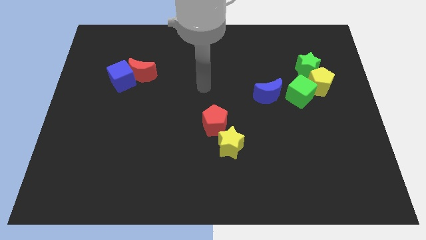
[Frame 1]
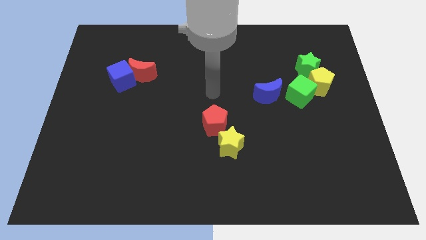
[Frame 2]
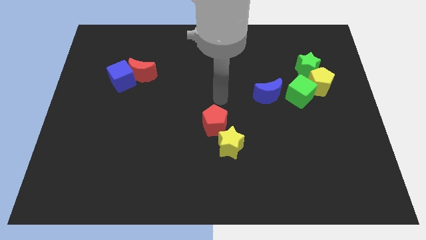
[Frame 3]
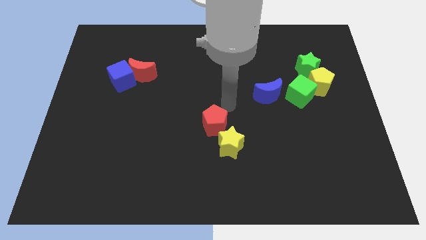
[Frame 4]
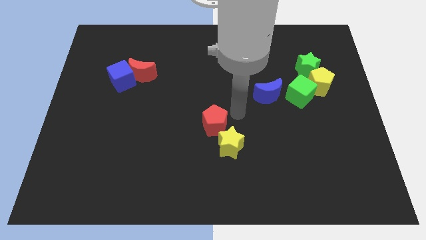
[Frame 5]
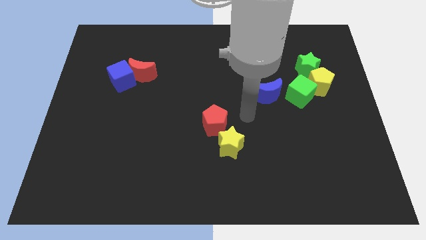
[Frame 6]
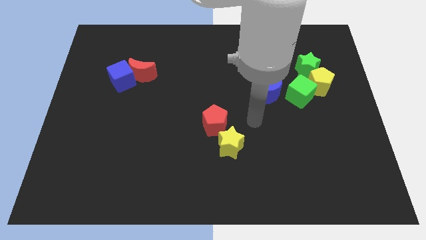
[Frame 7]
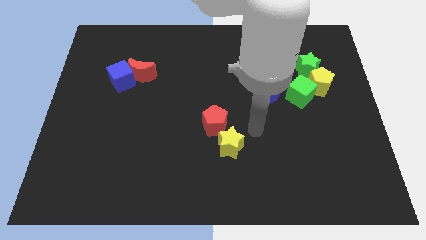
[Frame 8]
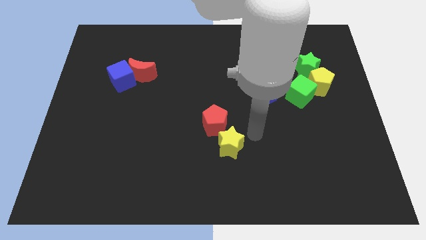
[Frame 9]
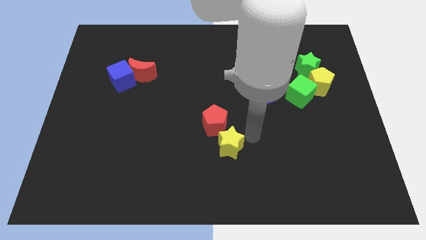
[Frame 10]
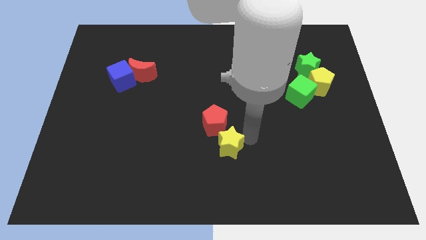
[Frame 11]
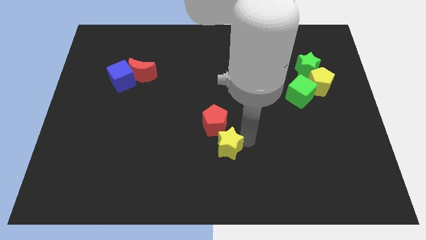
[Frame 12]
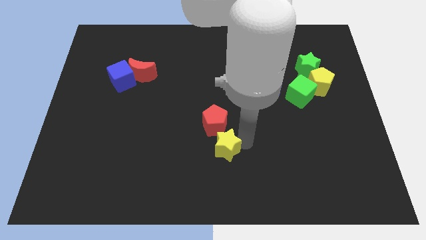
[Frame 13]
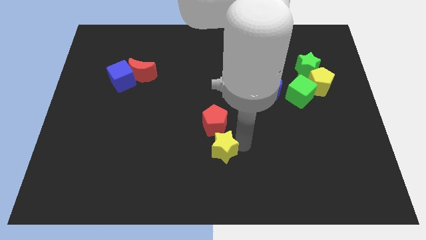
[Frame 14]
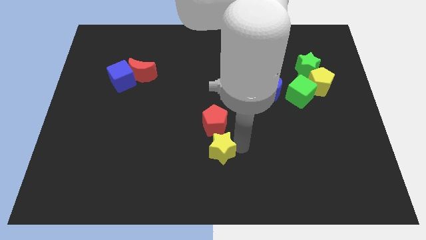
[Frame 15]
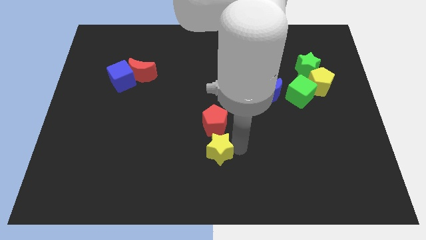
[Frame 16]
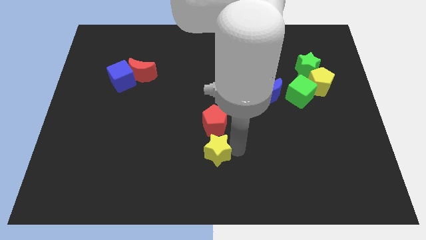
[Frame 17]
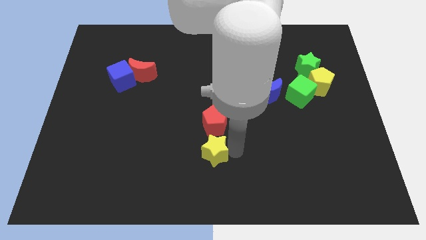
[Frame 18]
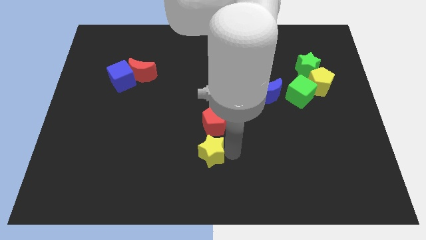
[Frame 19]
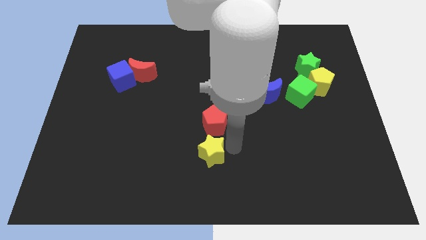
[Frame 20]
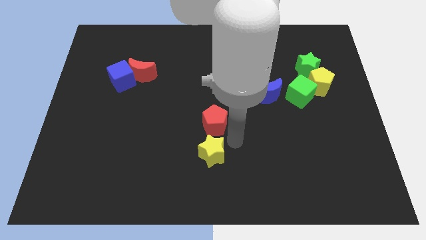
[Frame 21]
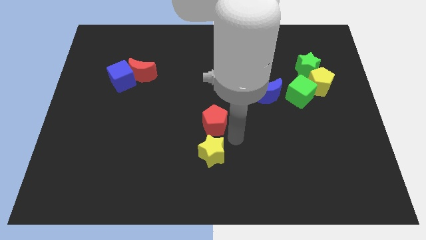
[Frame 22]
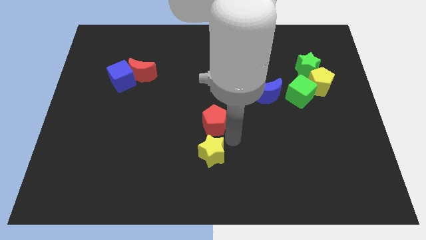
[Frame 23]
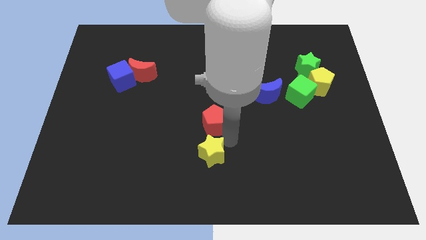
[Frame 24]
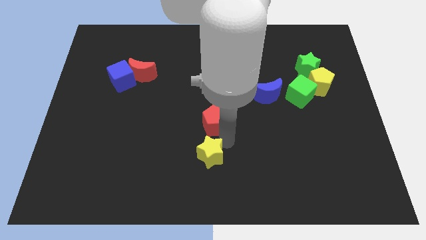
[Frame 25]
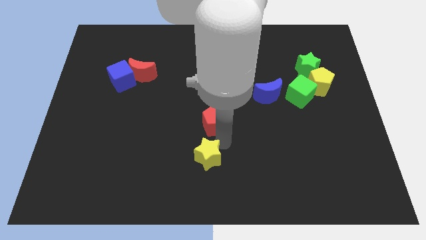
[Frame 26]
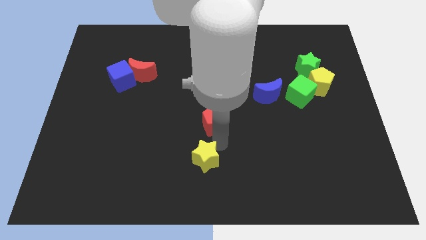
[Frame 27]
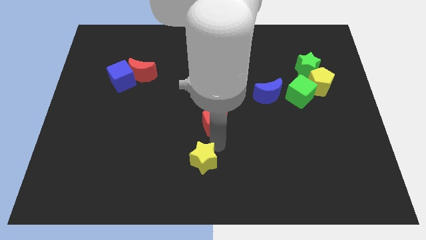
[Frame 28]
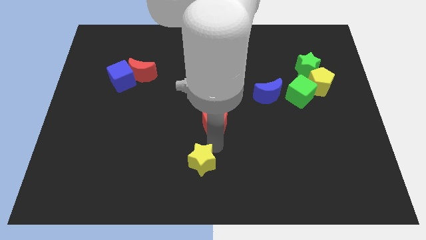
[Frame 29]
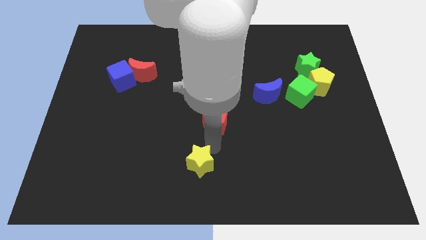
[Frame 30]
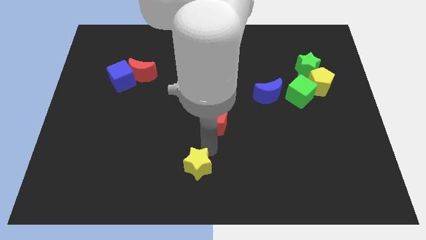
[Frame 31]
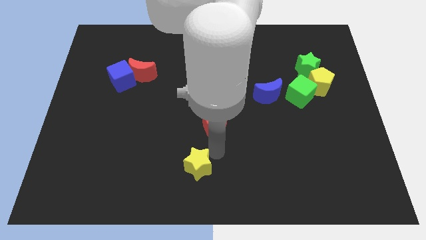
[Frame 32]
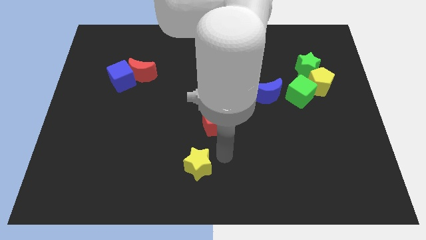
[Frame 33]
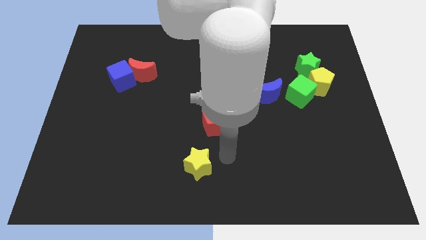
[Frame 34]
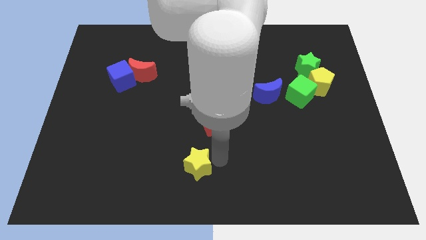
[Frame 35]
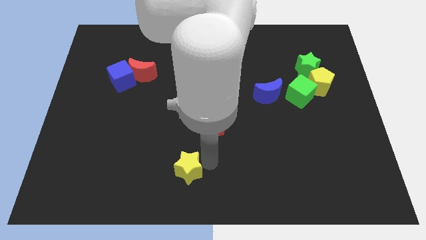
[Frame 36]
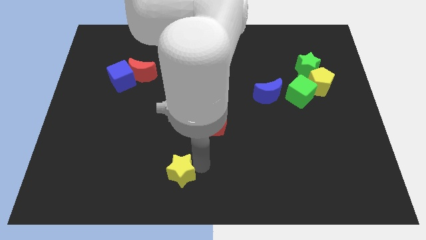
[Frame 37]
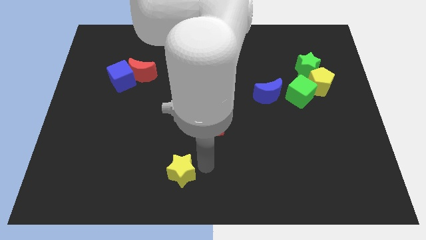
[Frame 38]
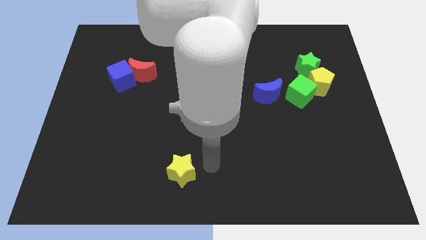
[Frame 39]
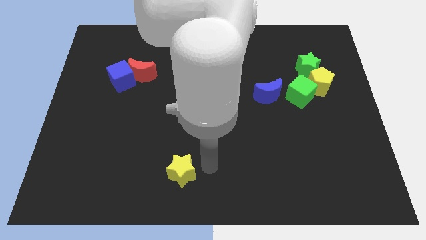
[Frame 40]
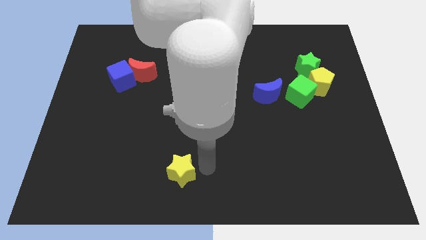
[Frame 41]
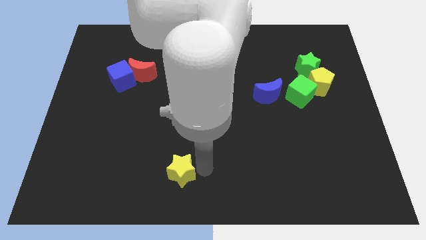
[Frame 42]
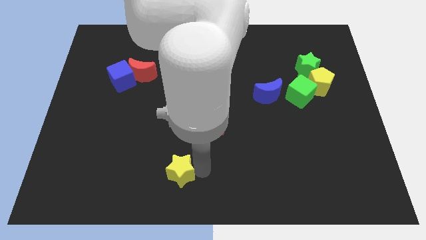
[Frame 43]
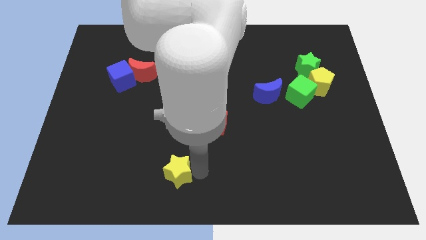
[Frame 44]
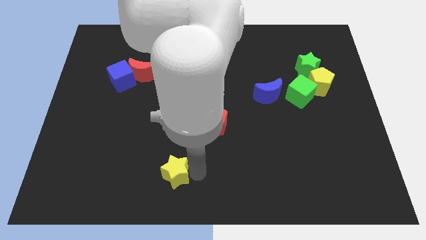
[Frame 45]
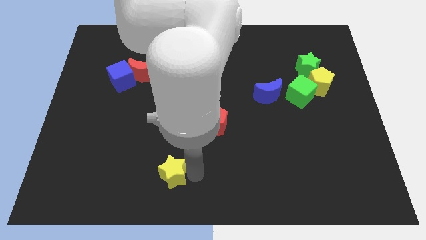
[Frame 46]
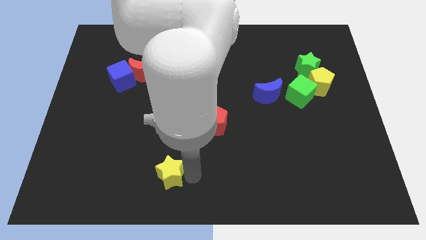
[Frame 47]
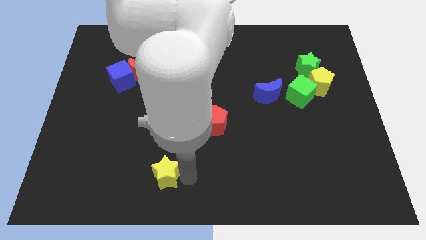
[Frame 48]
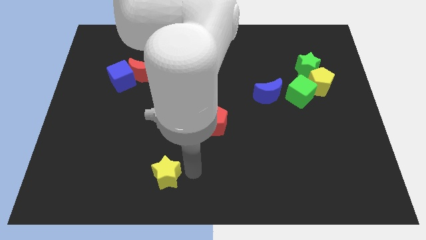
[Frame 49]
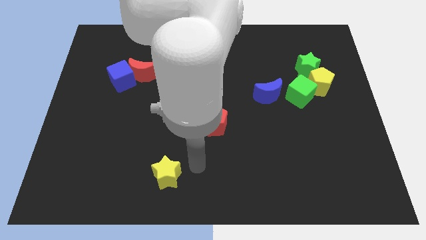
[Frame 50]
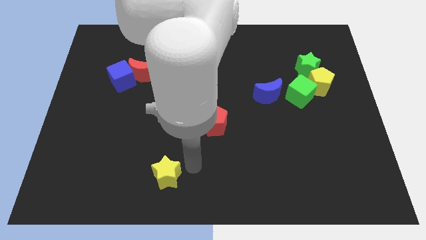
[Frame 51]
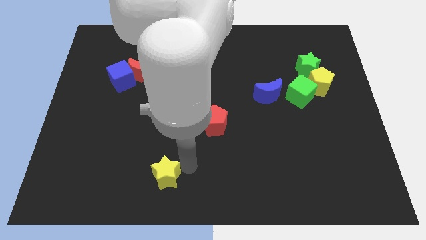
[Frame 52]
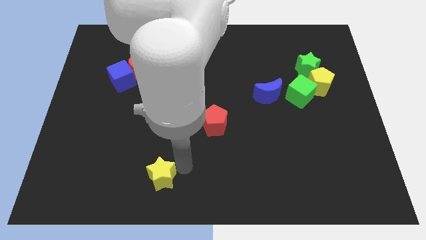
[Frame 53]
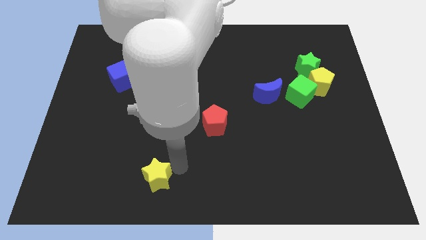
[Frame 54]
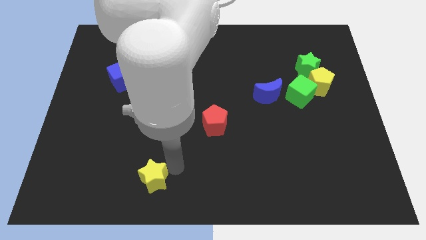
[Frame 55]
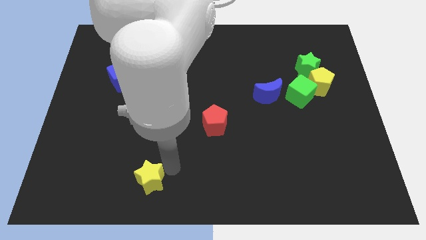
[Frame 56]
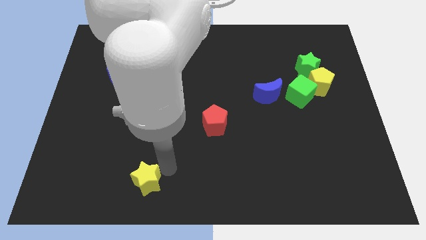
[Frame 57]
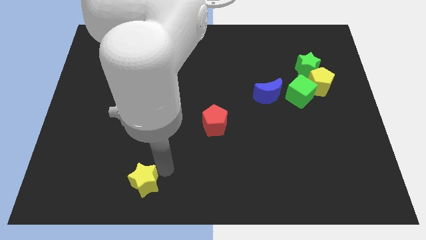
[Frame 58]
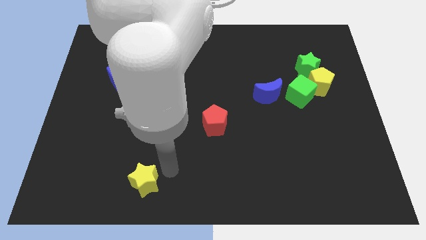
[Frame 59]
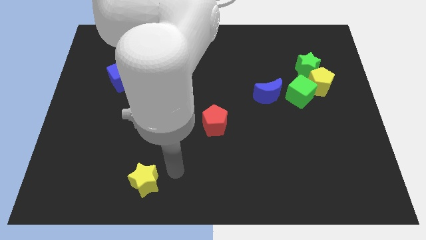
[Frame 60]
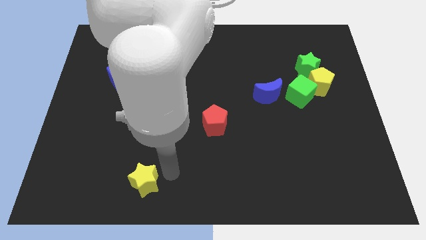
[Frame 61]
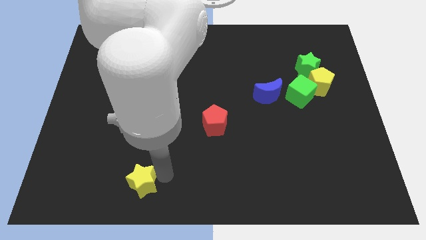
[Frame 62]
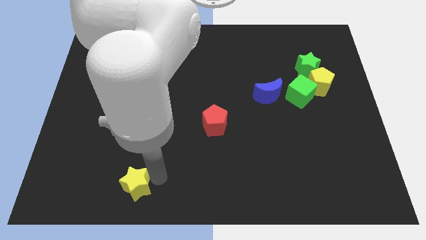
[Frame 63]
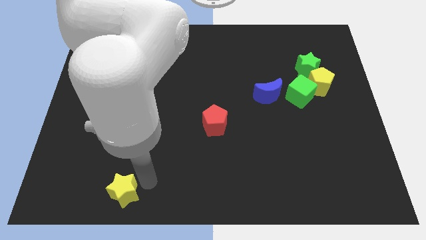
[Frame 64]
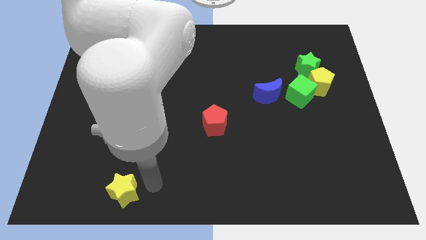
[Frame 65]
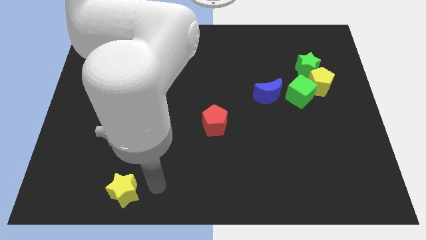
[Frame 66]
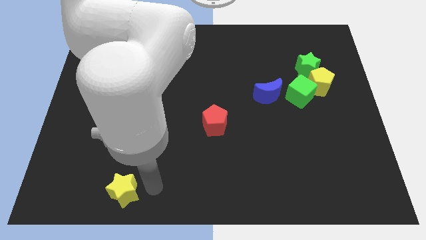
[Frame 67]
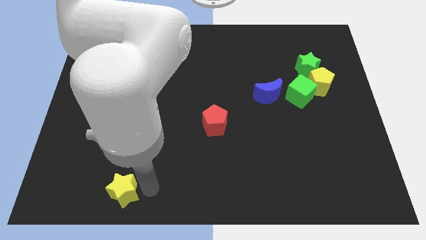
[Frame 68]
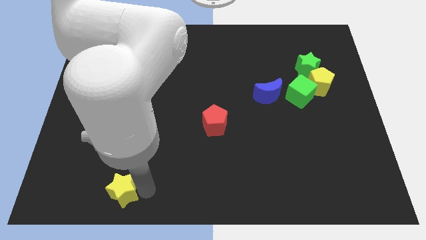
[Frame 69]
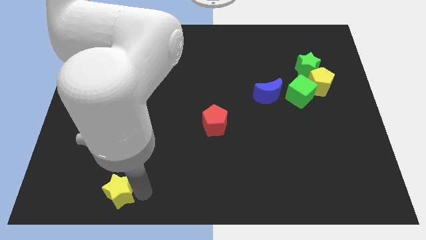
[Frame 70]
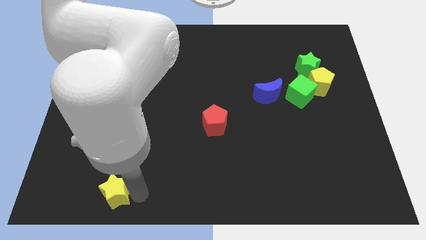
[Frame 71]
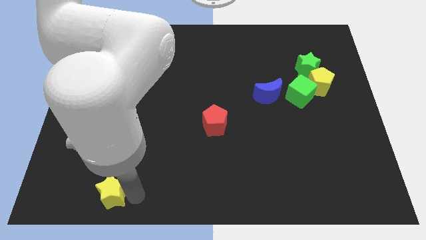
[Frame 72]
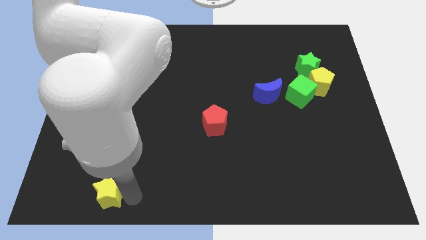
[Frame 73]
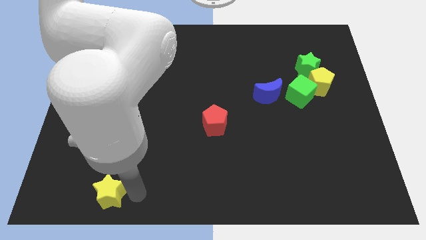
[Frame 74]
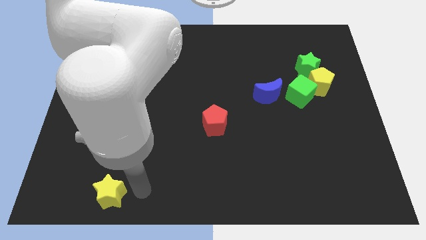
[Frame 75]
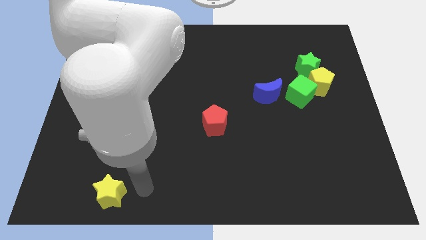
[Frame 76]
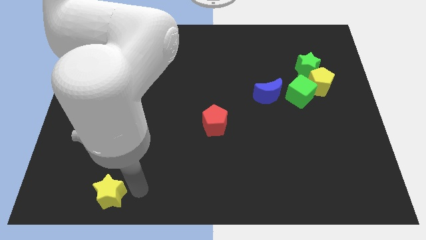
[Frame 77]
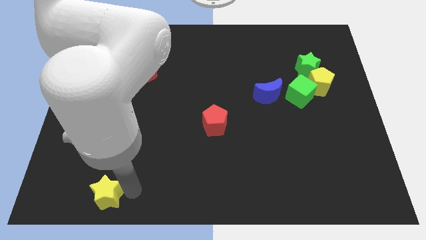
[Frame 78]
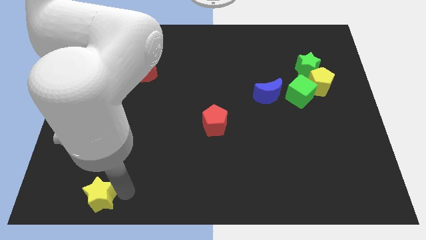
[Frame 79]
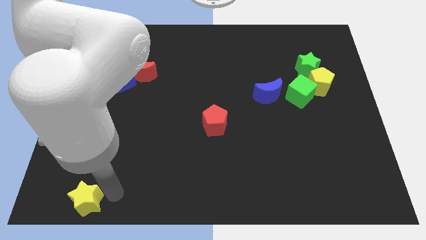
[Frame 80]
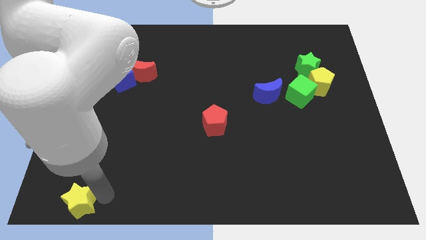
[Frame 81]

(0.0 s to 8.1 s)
slide the yellow star to the lower left corner
